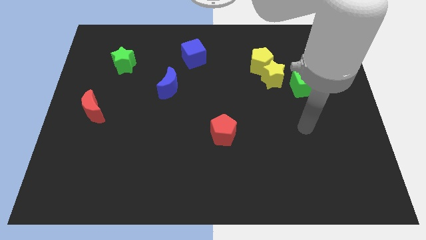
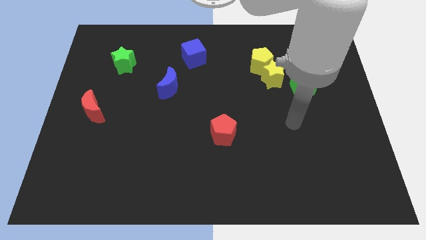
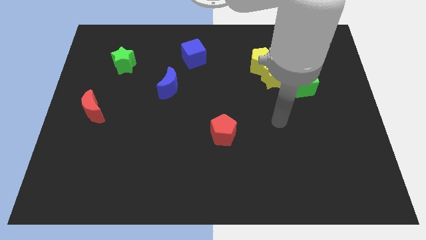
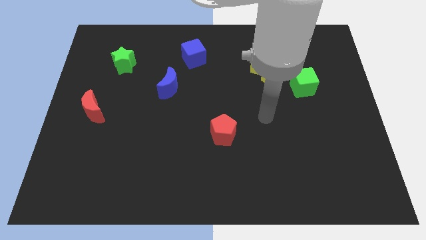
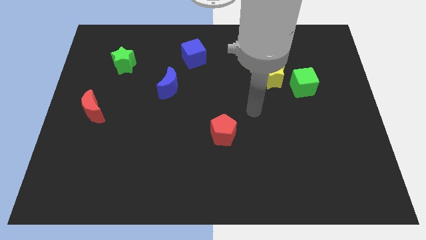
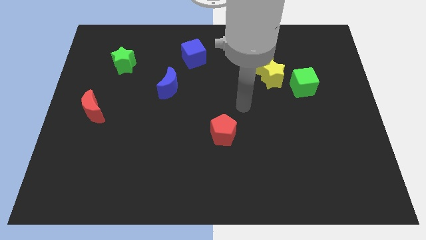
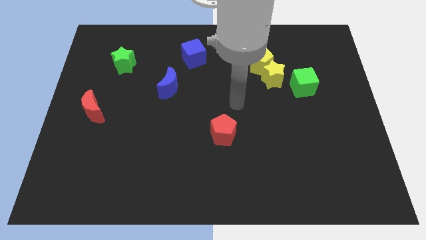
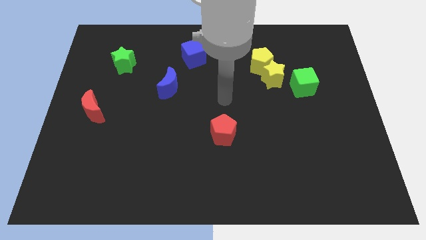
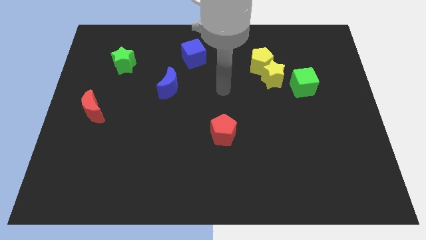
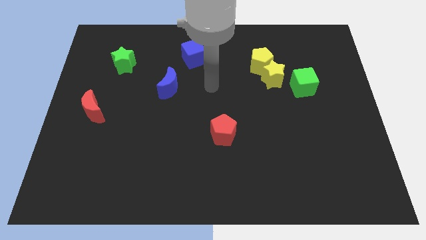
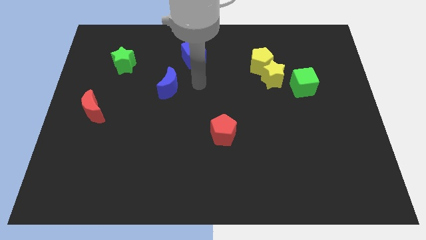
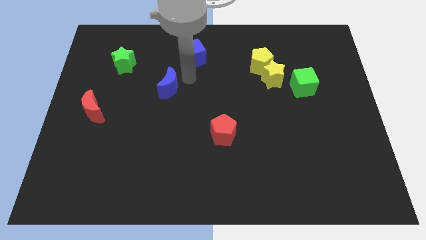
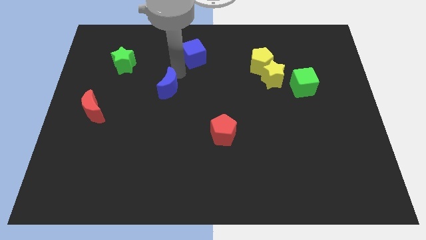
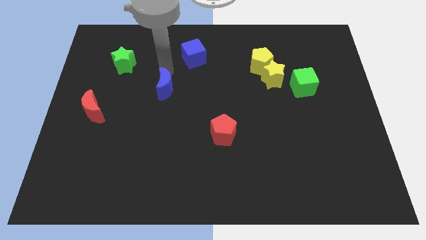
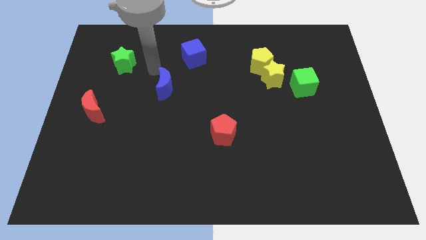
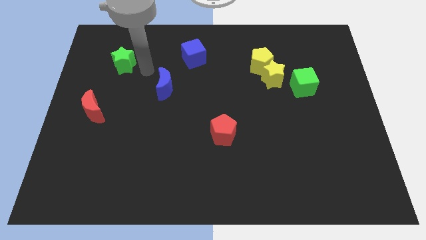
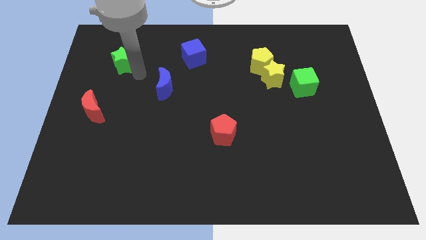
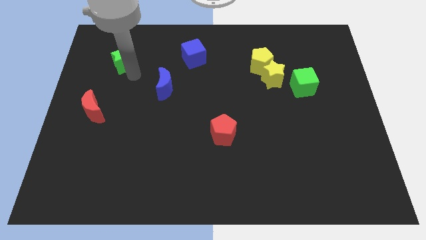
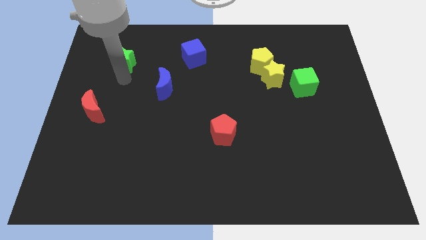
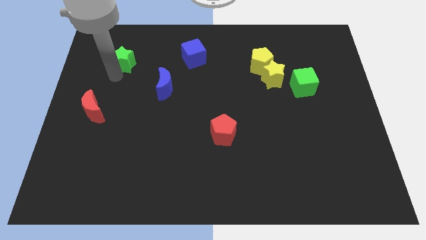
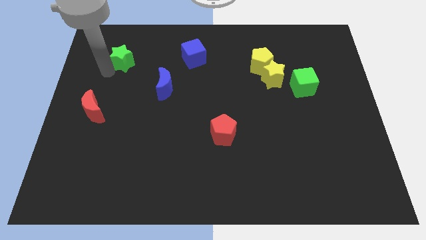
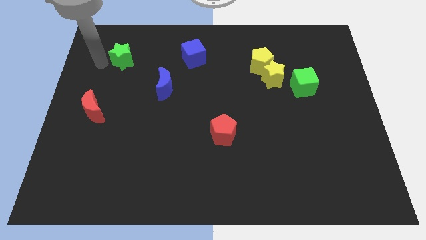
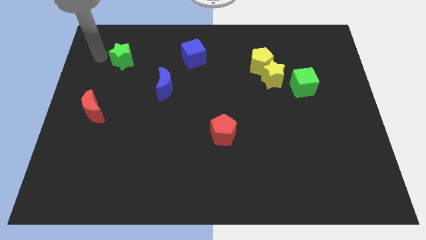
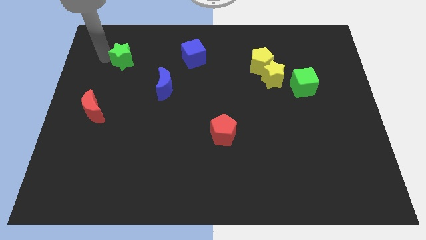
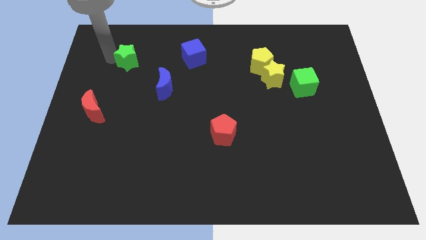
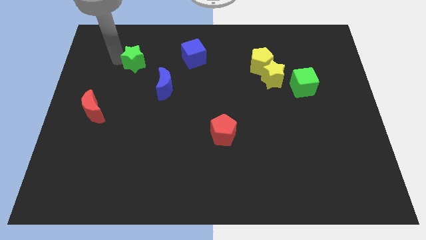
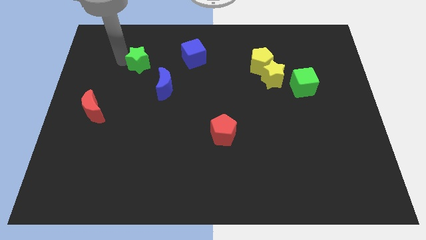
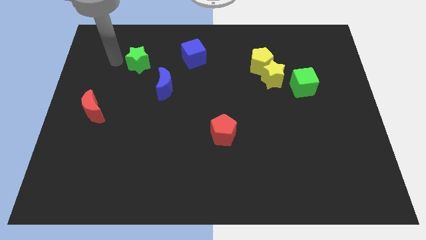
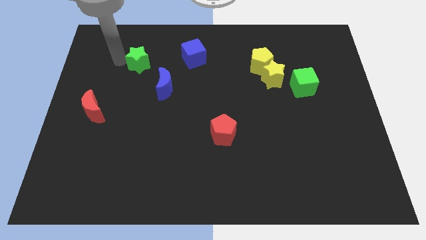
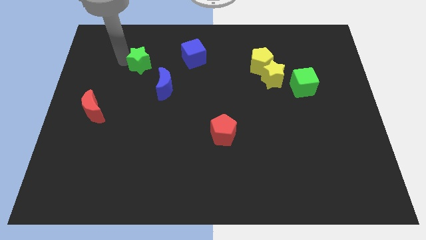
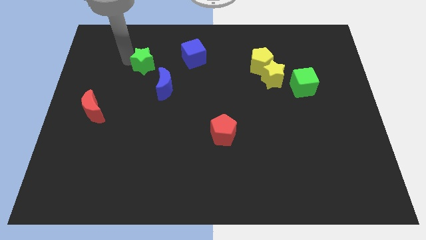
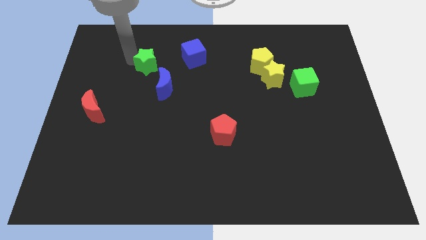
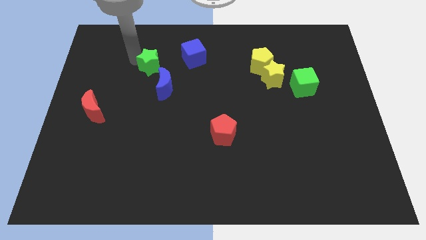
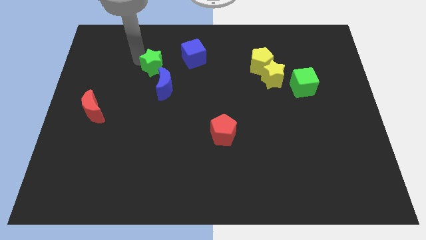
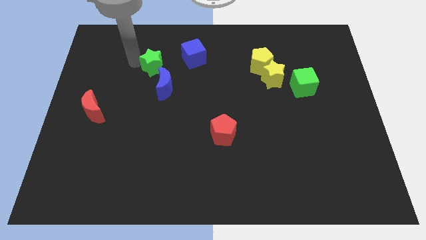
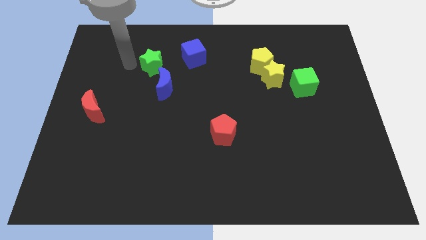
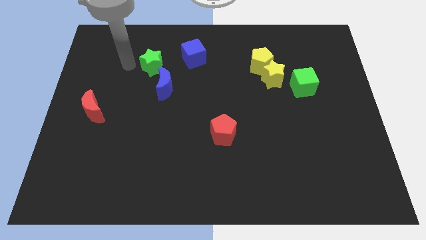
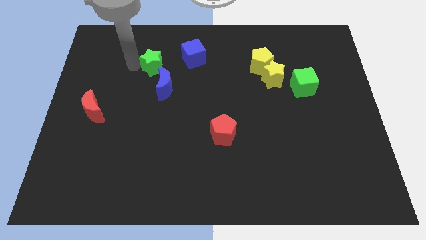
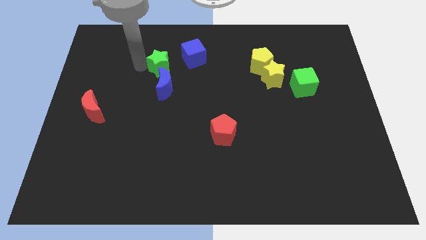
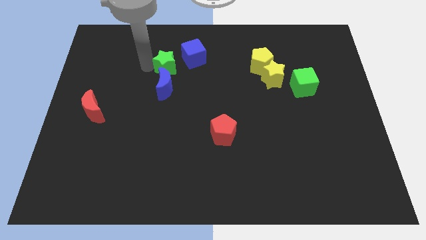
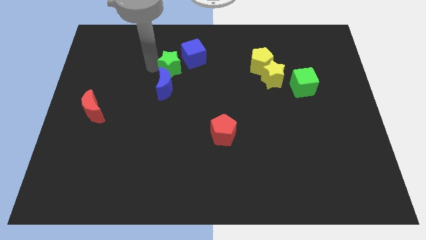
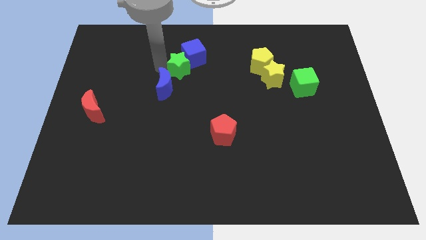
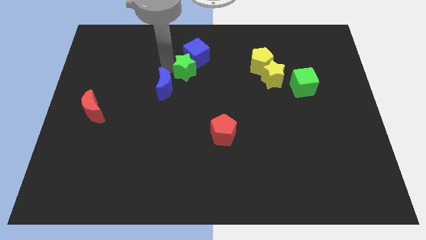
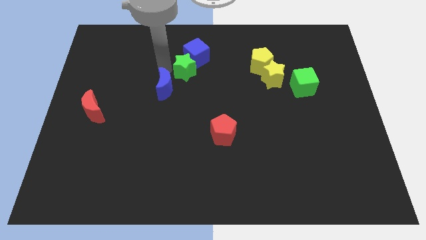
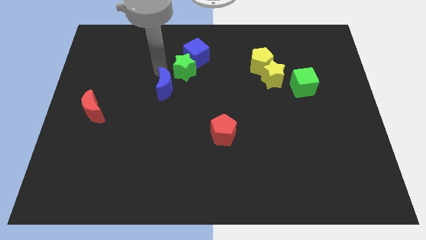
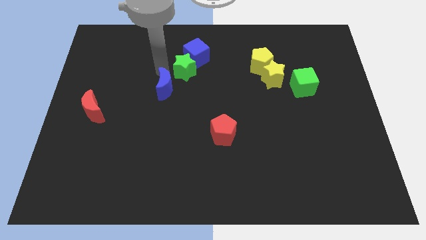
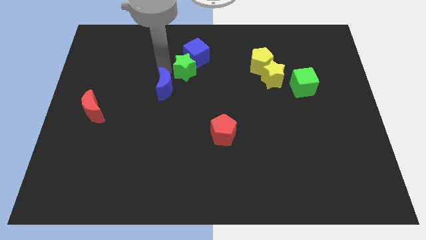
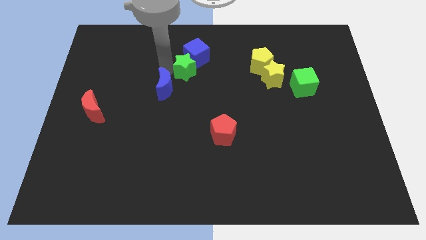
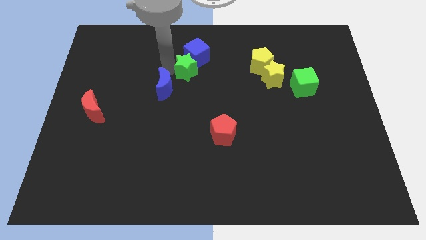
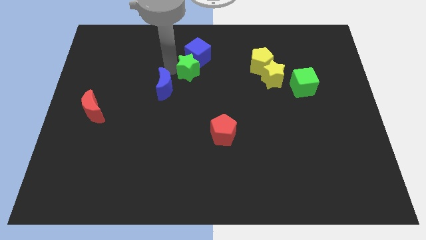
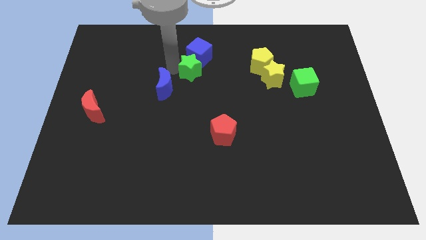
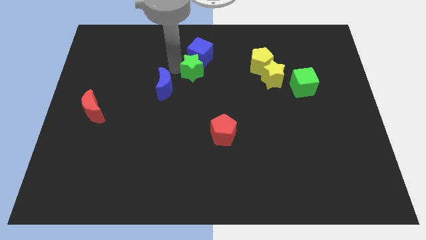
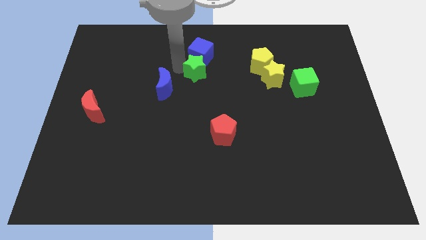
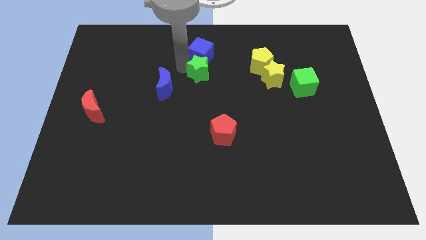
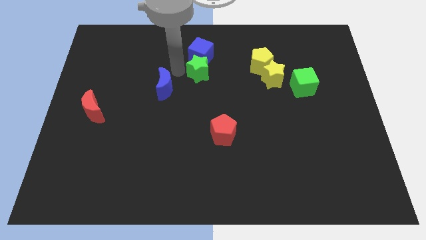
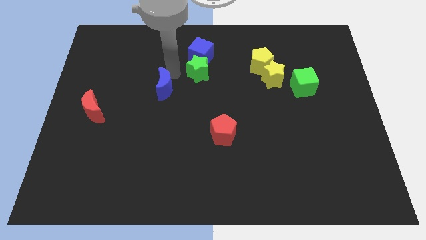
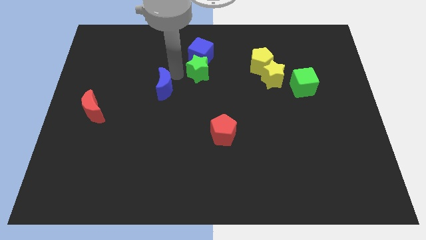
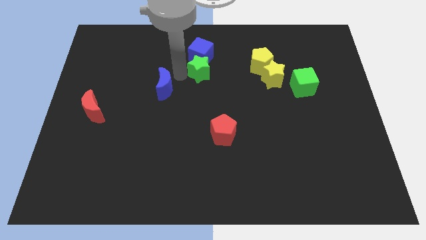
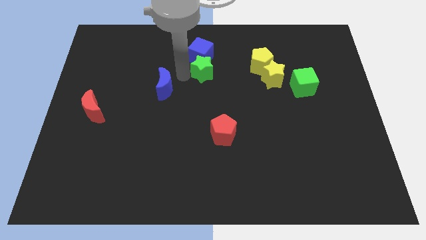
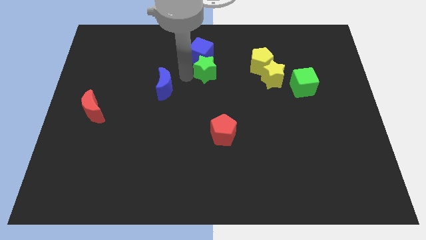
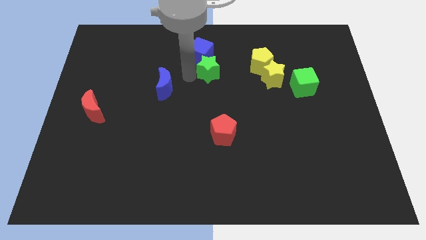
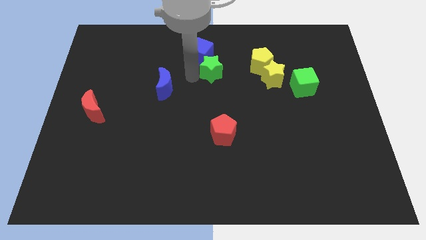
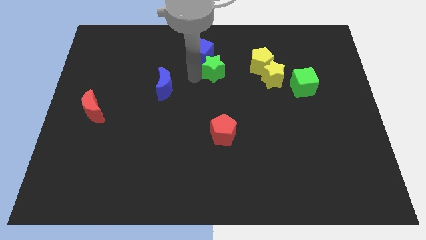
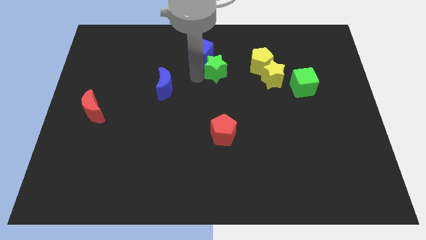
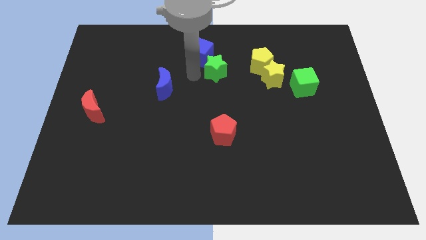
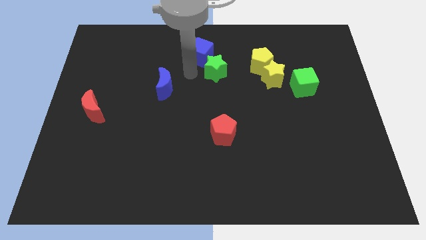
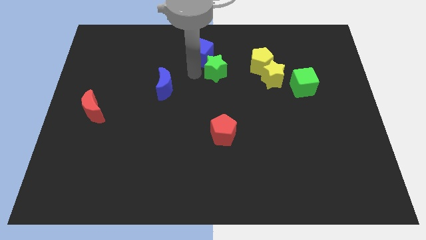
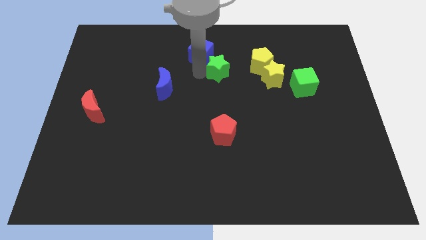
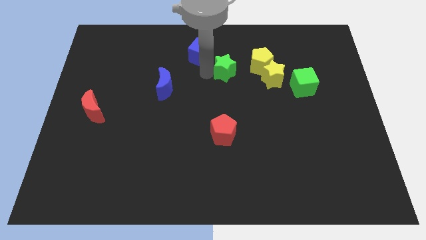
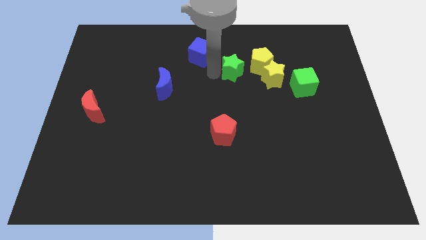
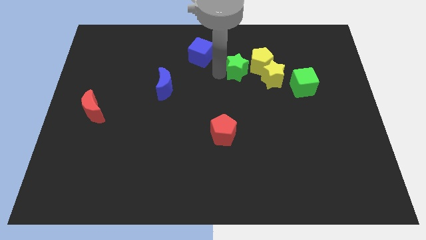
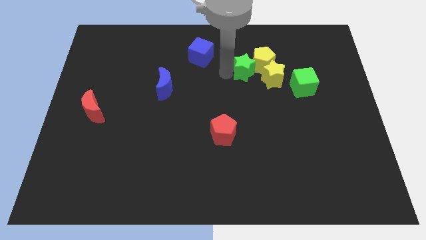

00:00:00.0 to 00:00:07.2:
put the green star towards the yellow pentagon
